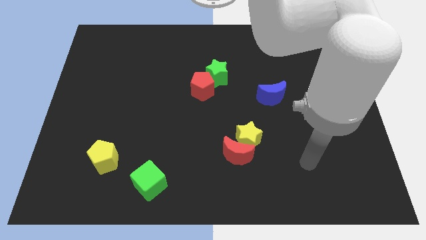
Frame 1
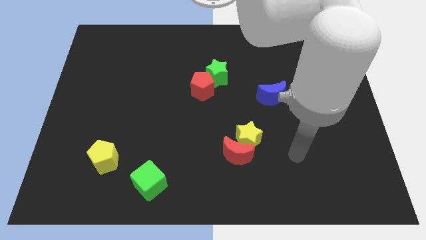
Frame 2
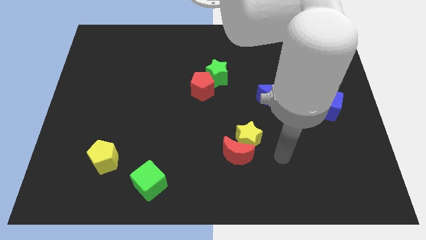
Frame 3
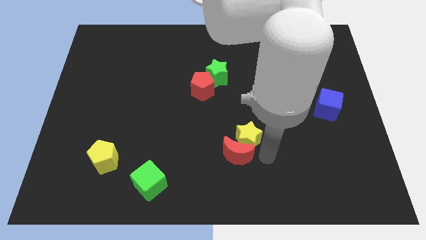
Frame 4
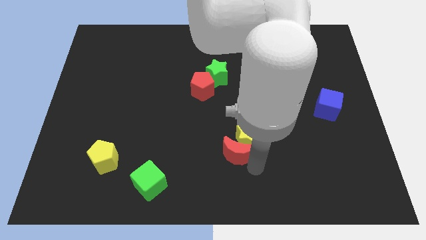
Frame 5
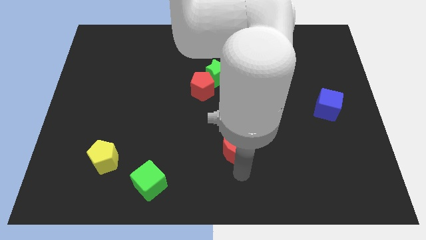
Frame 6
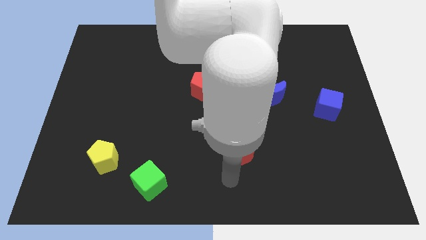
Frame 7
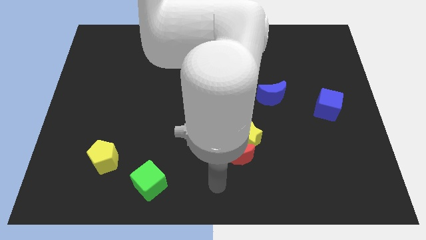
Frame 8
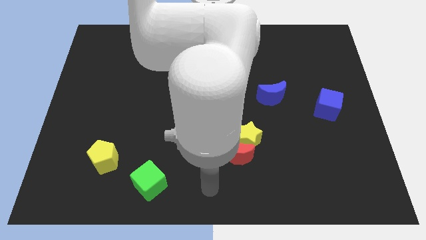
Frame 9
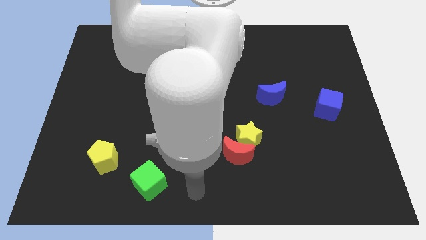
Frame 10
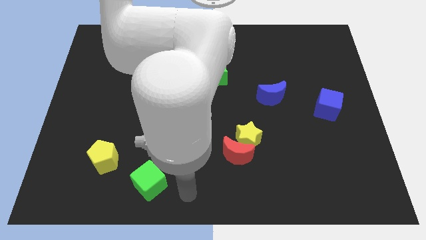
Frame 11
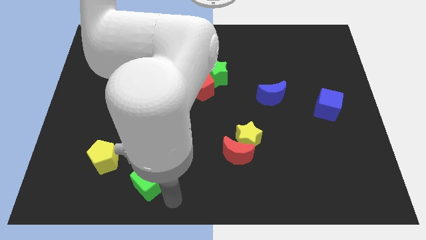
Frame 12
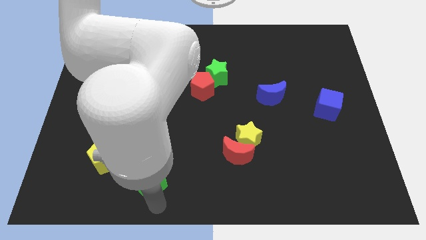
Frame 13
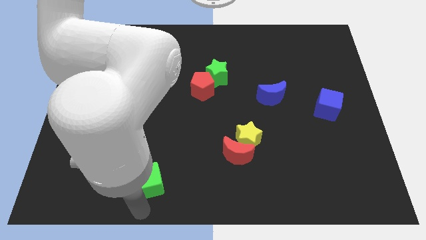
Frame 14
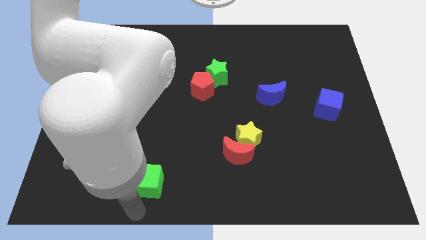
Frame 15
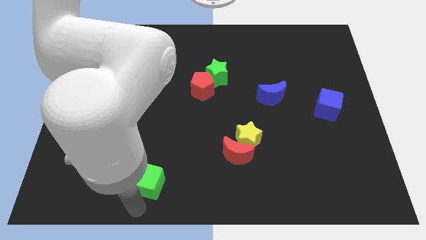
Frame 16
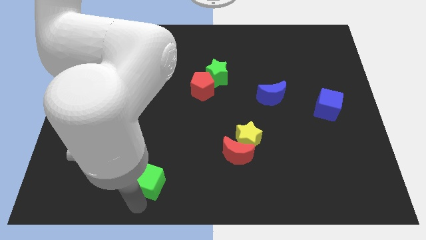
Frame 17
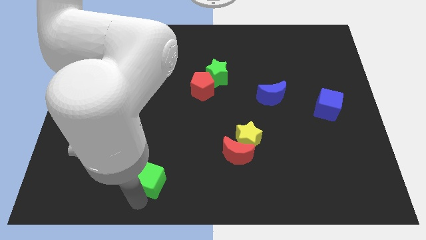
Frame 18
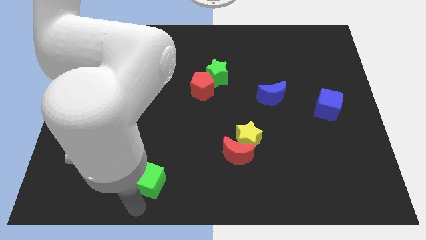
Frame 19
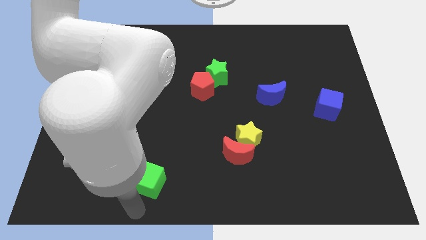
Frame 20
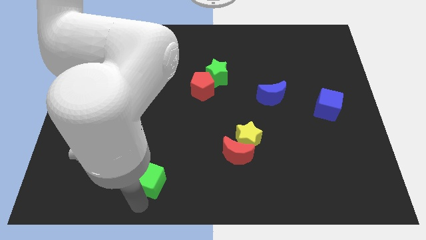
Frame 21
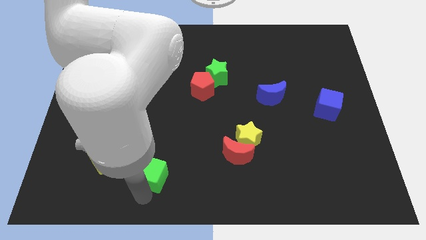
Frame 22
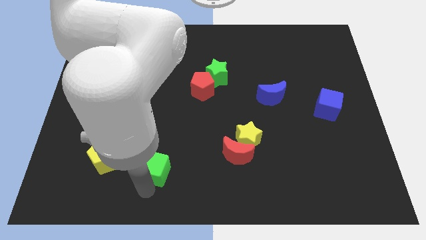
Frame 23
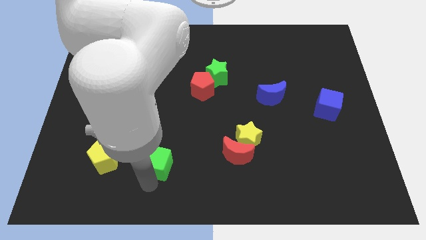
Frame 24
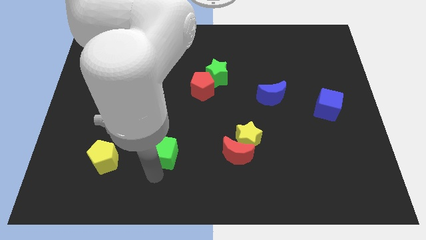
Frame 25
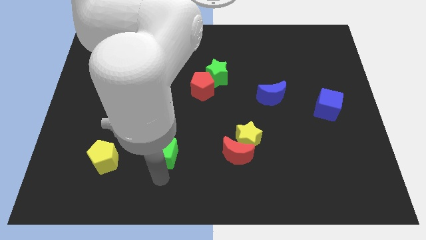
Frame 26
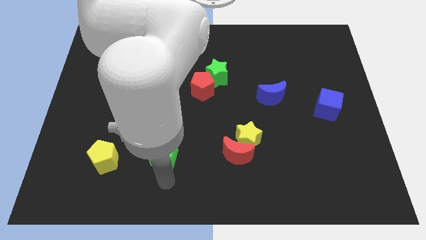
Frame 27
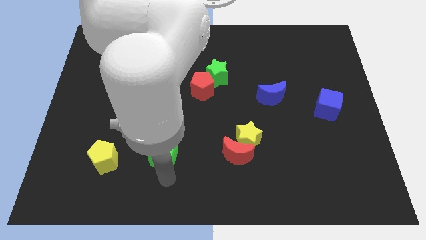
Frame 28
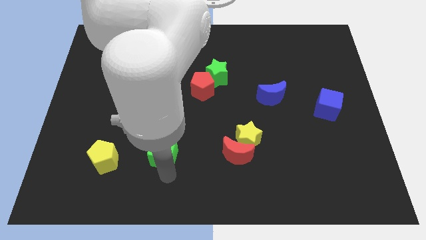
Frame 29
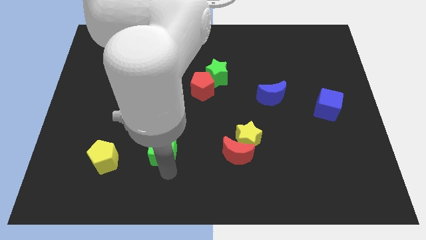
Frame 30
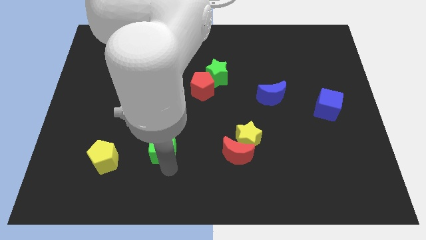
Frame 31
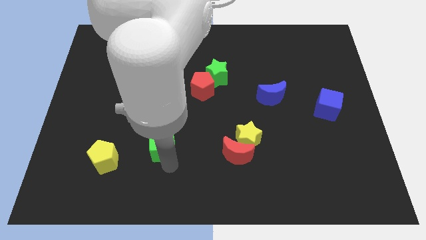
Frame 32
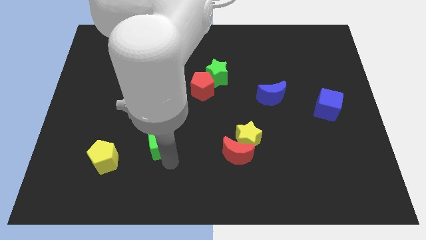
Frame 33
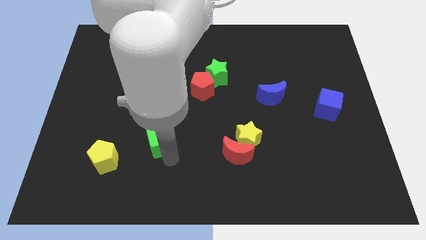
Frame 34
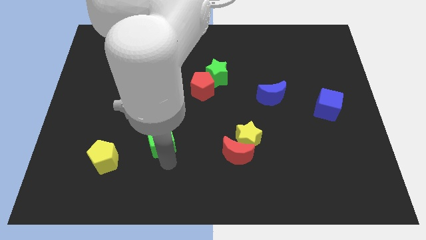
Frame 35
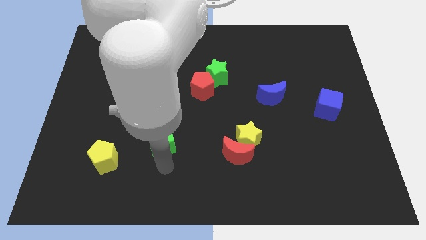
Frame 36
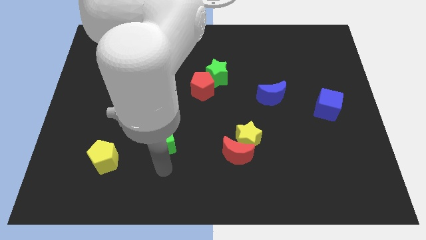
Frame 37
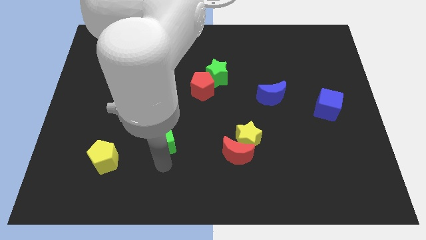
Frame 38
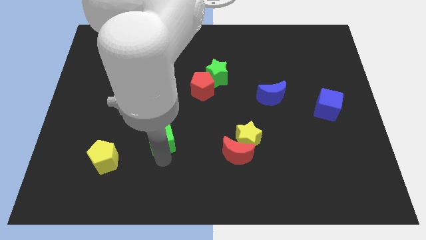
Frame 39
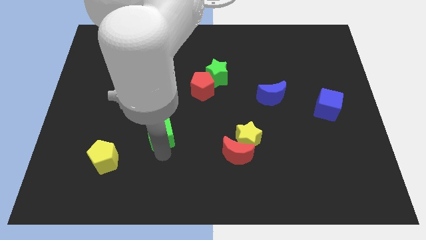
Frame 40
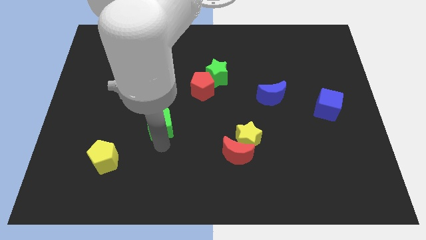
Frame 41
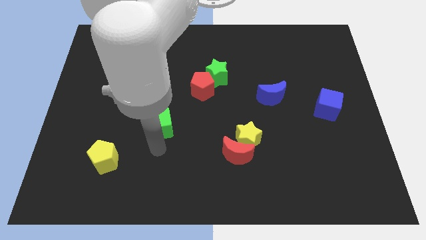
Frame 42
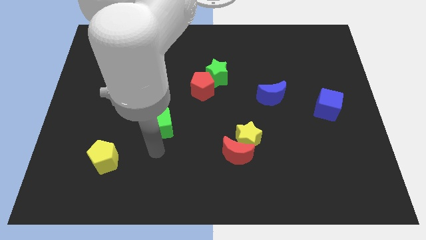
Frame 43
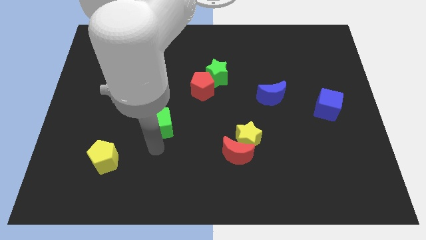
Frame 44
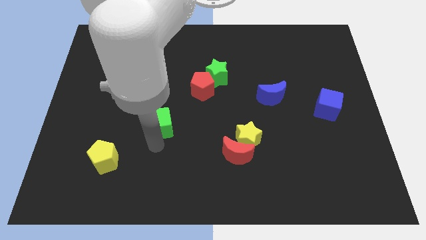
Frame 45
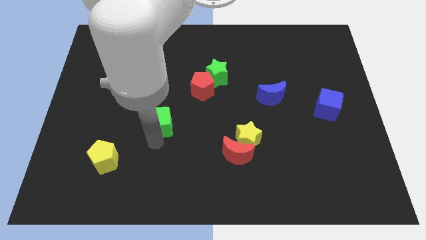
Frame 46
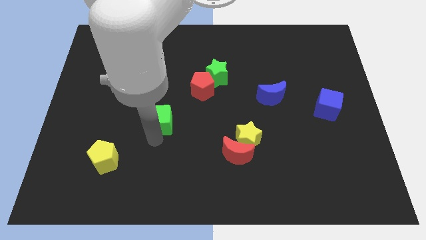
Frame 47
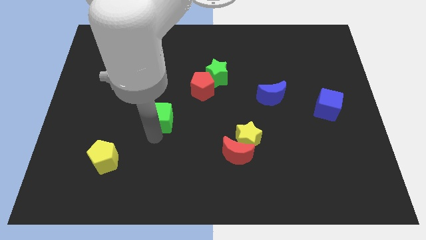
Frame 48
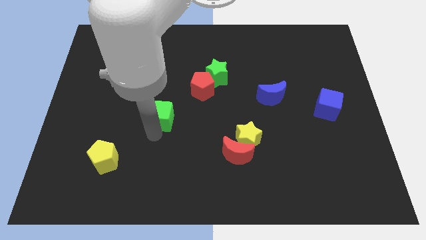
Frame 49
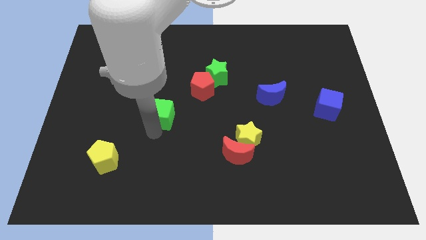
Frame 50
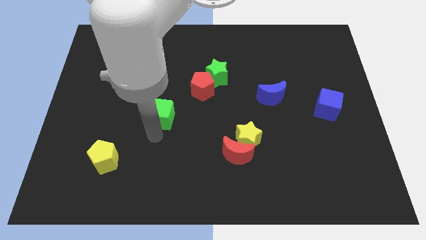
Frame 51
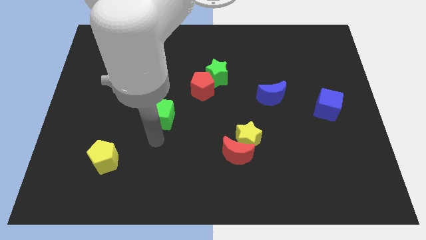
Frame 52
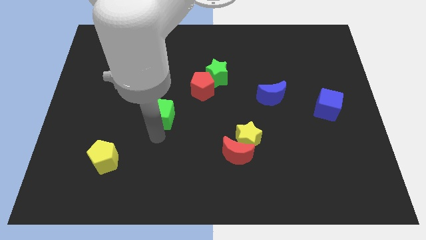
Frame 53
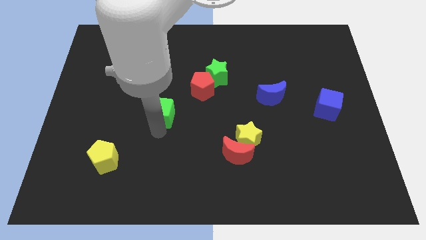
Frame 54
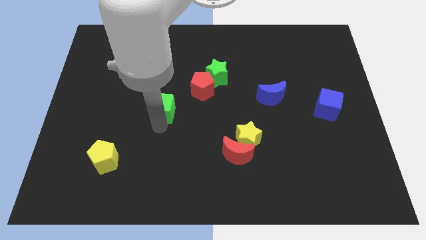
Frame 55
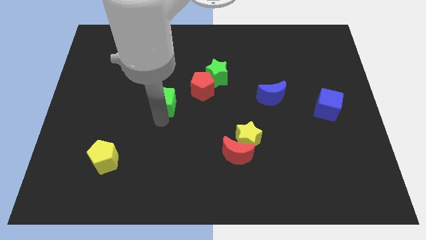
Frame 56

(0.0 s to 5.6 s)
push the green cube upwards

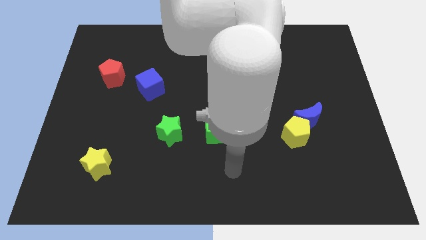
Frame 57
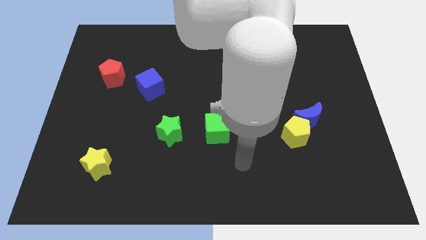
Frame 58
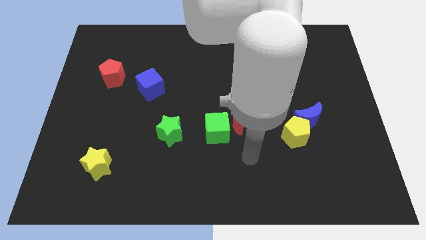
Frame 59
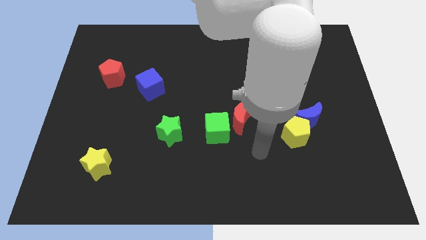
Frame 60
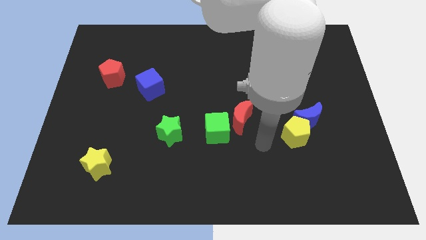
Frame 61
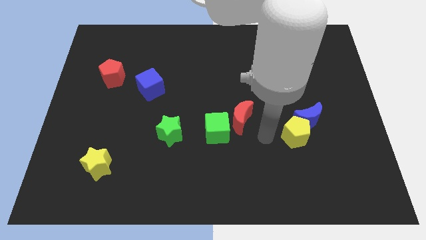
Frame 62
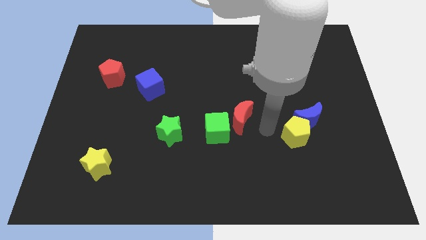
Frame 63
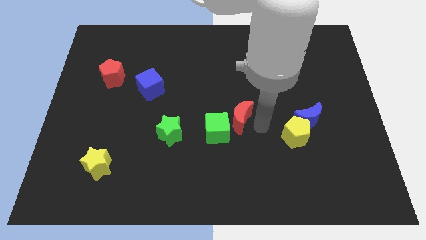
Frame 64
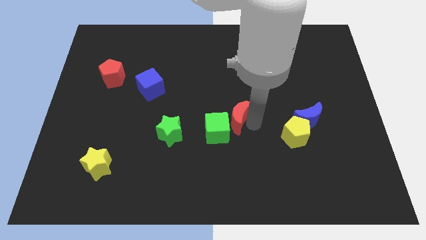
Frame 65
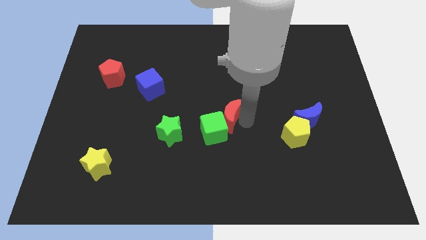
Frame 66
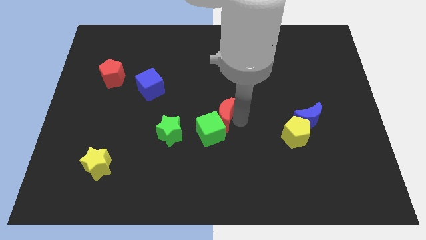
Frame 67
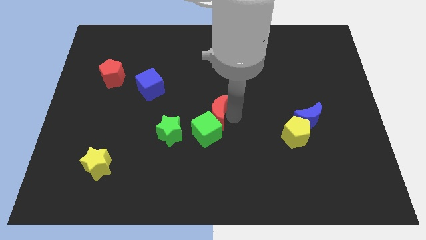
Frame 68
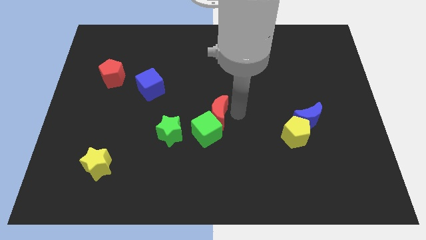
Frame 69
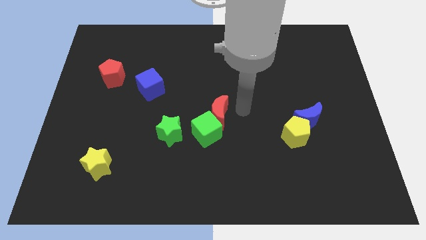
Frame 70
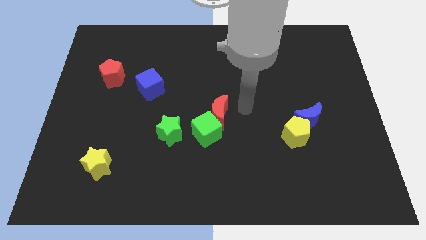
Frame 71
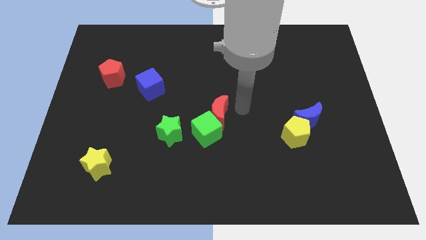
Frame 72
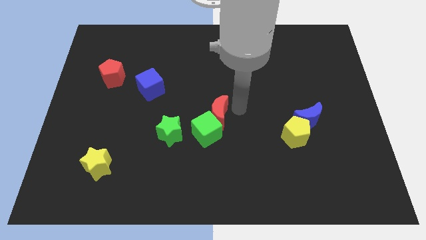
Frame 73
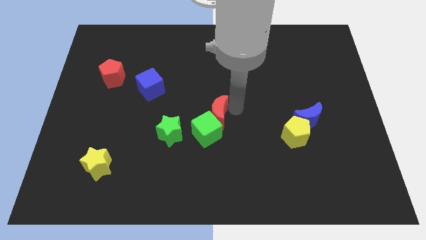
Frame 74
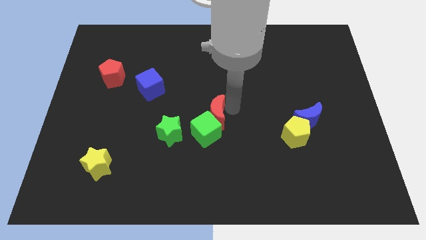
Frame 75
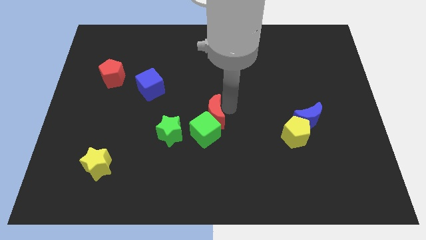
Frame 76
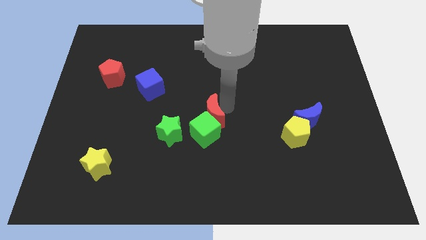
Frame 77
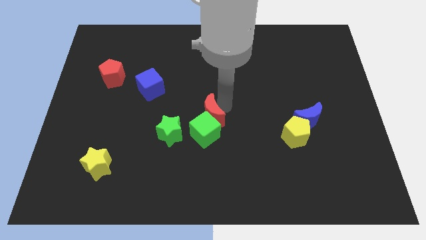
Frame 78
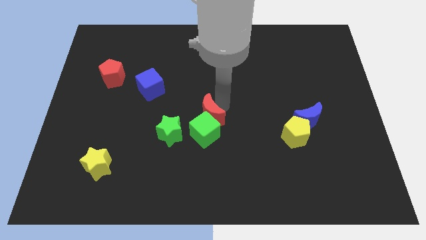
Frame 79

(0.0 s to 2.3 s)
slide the red moon left a bit
